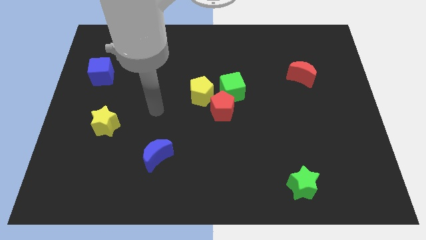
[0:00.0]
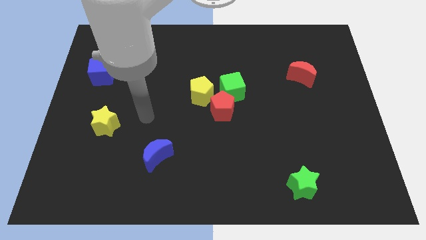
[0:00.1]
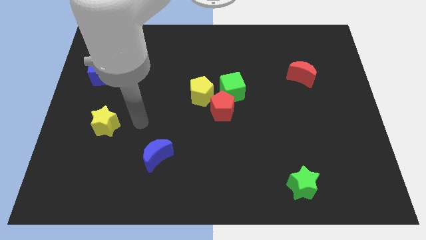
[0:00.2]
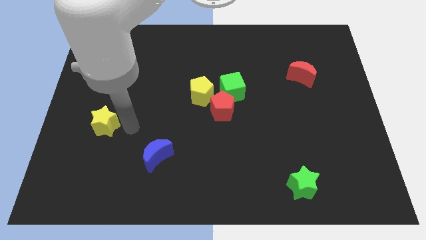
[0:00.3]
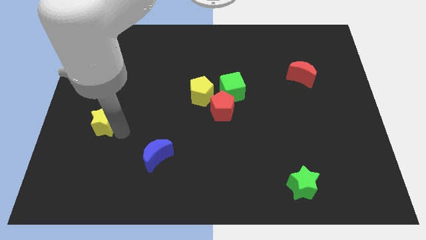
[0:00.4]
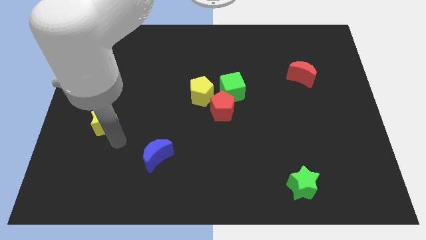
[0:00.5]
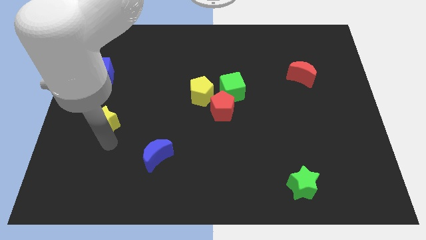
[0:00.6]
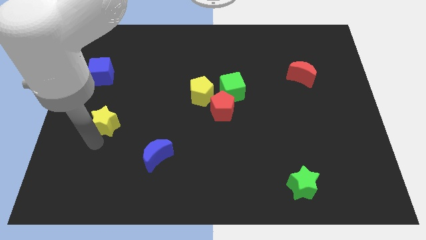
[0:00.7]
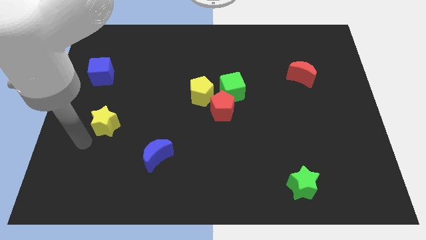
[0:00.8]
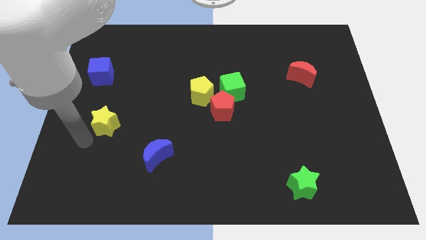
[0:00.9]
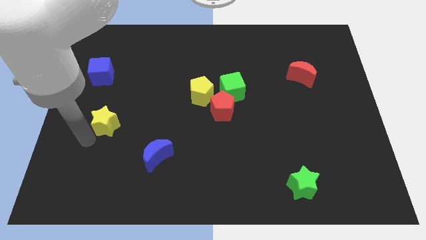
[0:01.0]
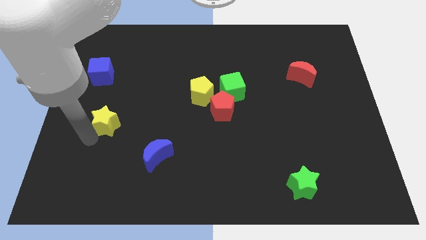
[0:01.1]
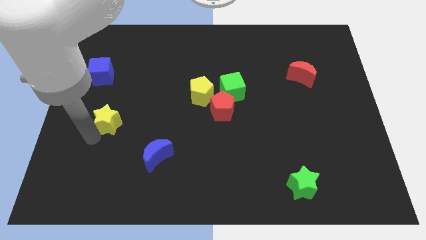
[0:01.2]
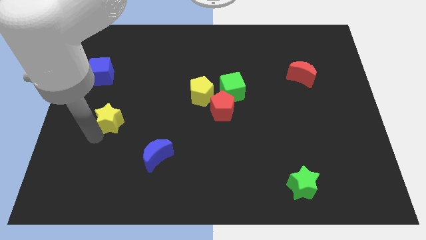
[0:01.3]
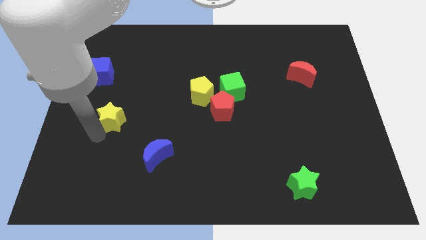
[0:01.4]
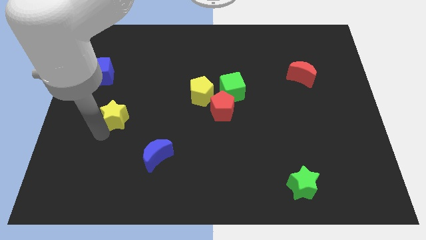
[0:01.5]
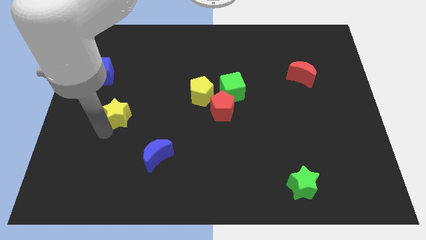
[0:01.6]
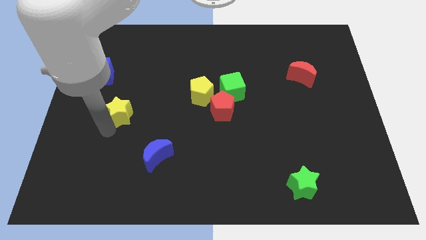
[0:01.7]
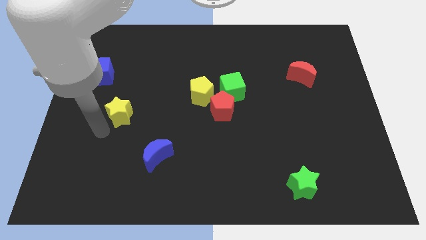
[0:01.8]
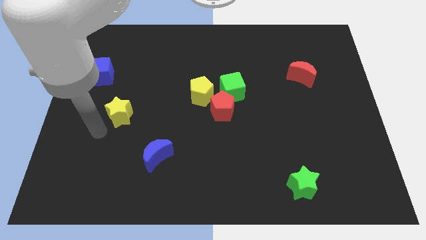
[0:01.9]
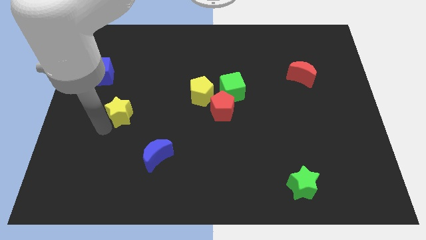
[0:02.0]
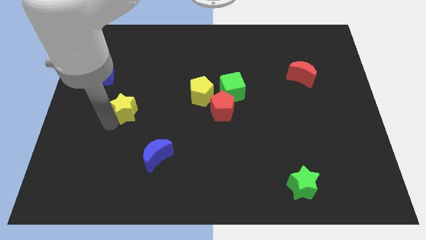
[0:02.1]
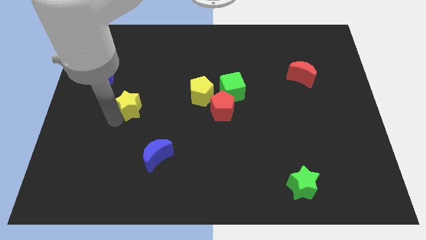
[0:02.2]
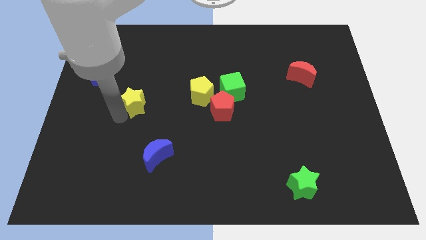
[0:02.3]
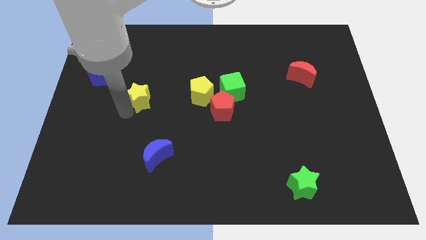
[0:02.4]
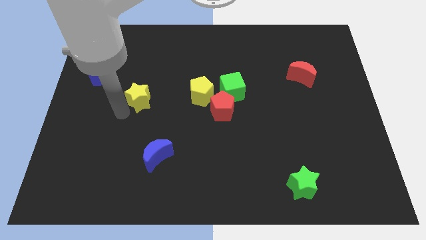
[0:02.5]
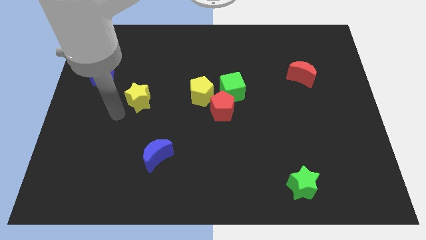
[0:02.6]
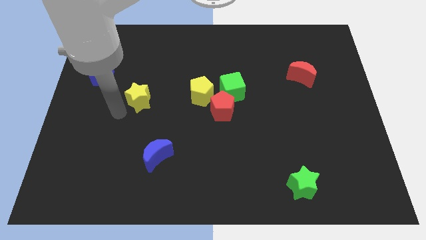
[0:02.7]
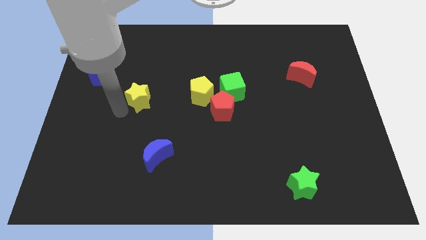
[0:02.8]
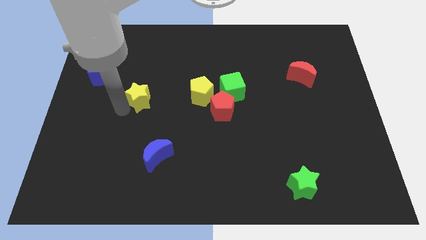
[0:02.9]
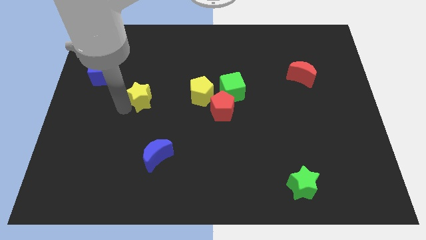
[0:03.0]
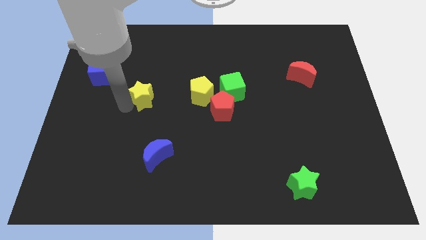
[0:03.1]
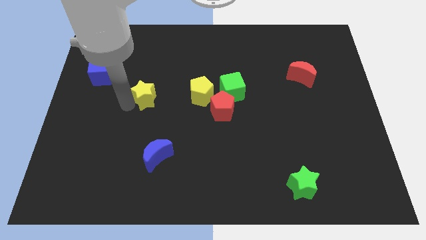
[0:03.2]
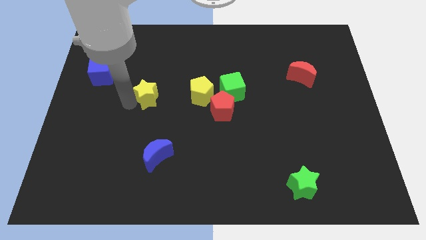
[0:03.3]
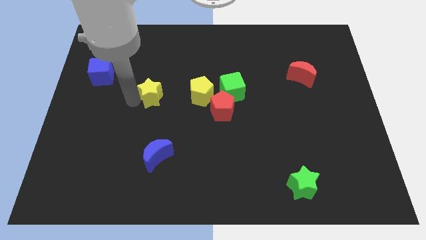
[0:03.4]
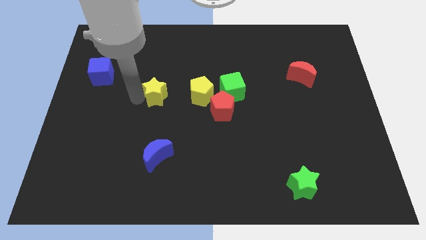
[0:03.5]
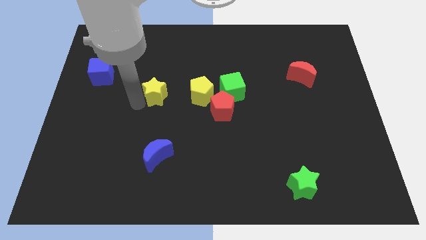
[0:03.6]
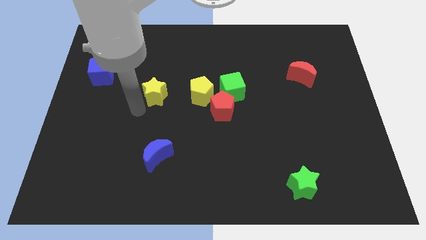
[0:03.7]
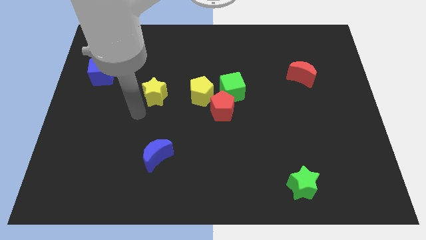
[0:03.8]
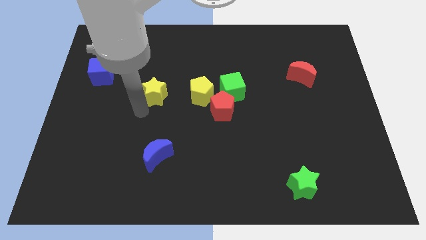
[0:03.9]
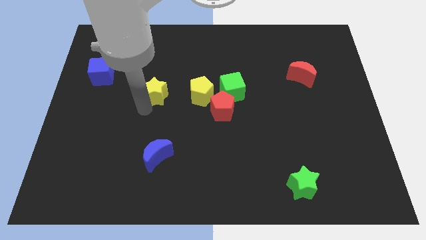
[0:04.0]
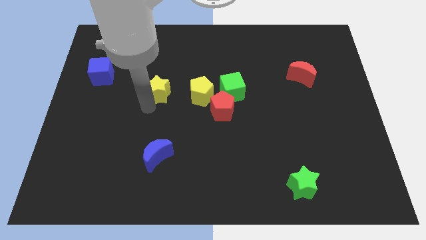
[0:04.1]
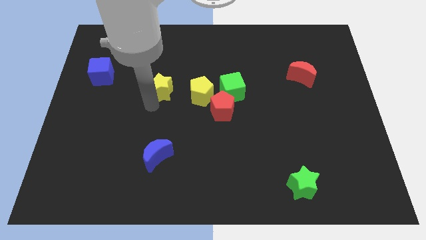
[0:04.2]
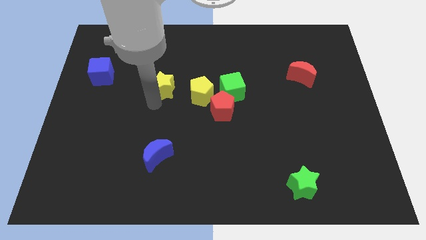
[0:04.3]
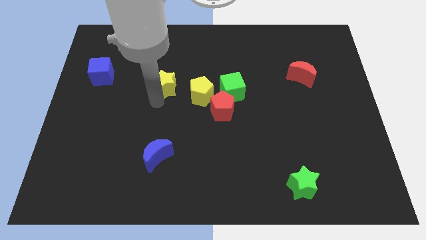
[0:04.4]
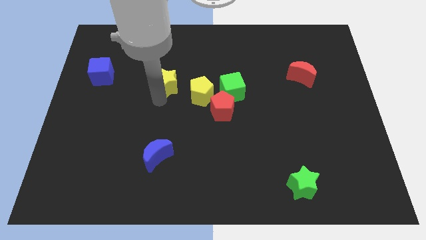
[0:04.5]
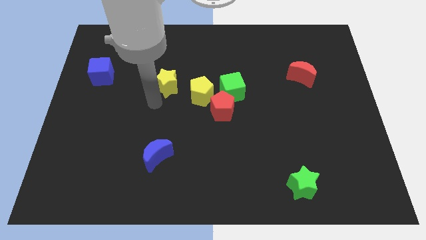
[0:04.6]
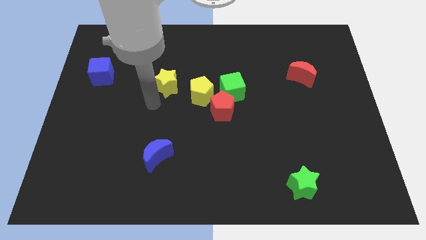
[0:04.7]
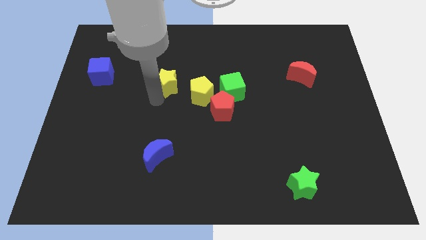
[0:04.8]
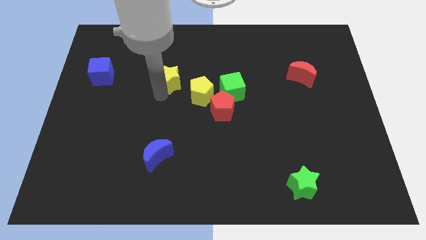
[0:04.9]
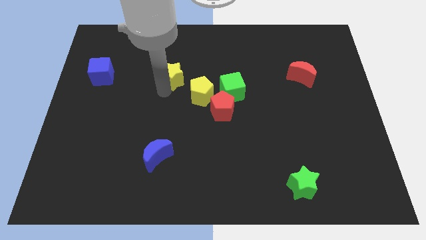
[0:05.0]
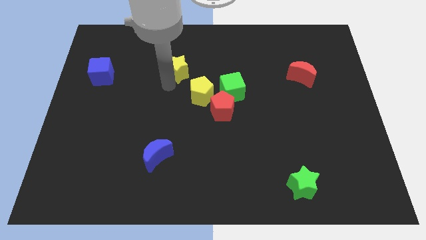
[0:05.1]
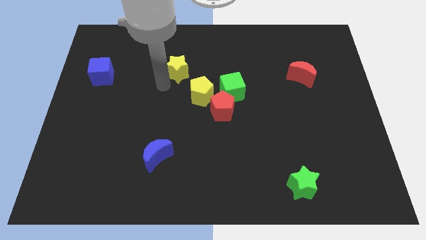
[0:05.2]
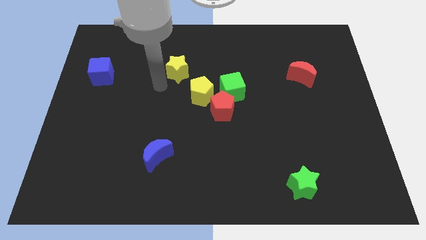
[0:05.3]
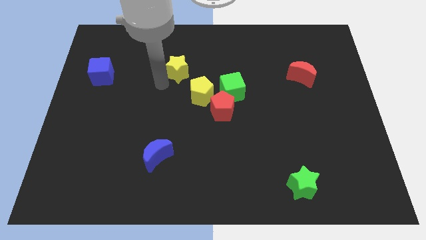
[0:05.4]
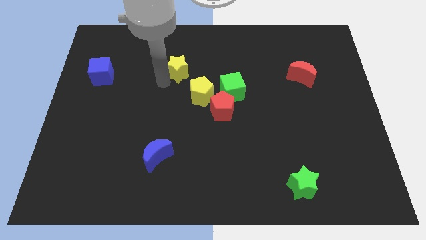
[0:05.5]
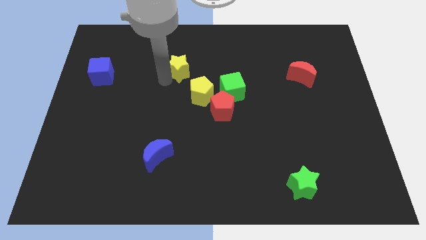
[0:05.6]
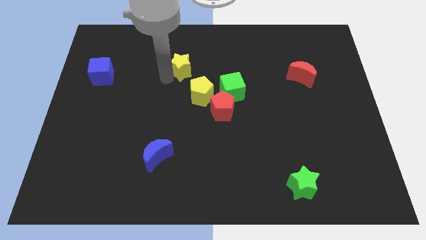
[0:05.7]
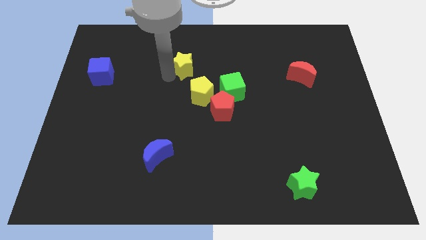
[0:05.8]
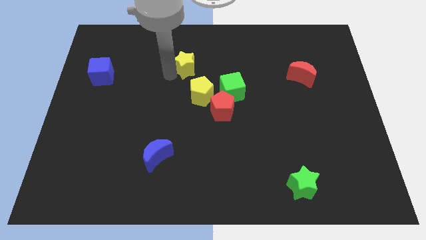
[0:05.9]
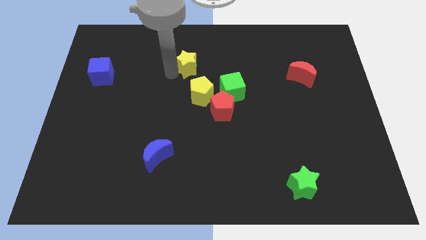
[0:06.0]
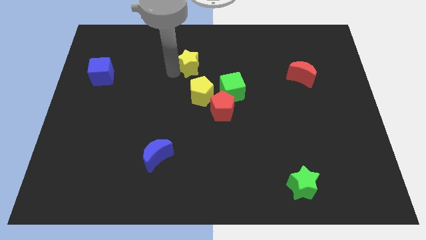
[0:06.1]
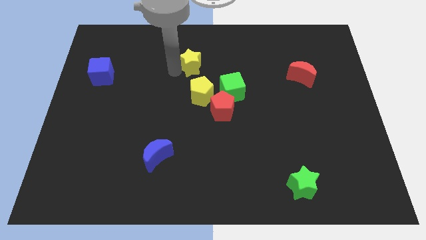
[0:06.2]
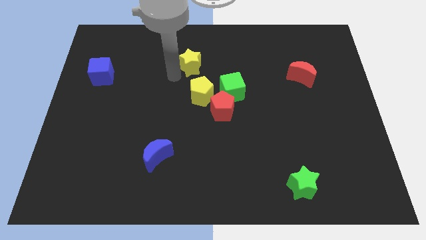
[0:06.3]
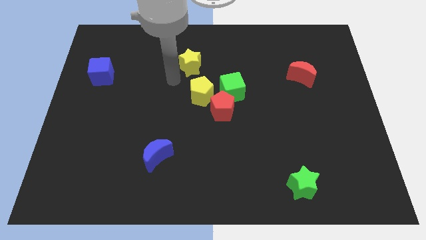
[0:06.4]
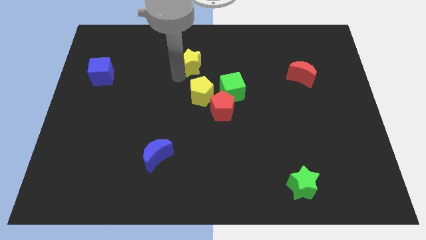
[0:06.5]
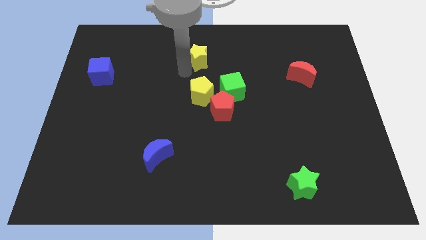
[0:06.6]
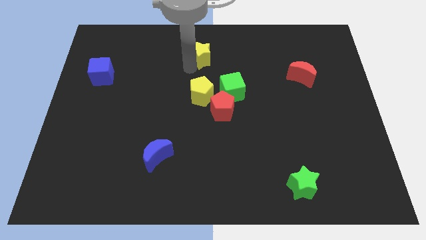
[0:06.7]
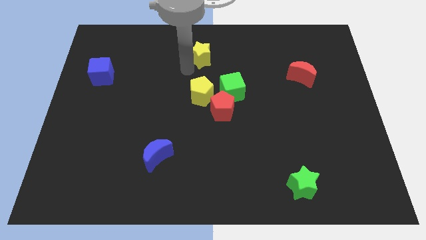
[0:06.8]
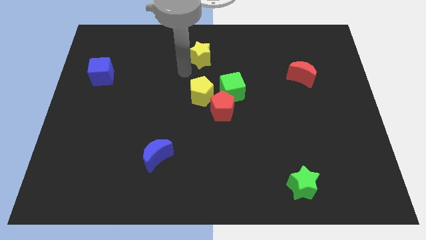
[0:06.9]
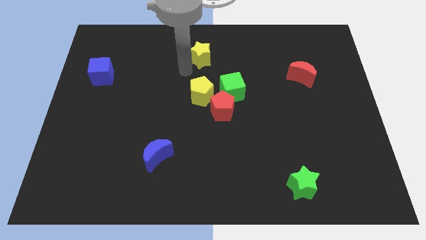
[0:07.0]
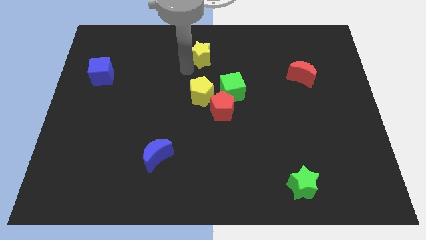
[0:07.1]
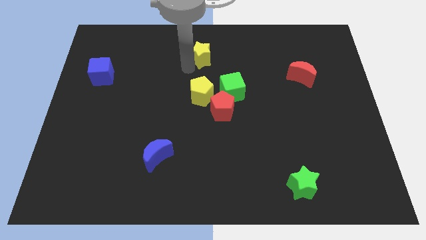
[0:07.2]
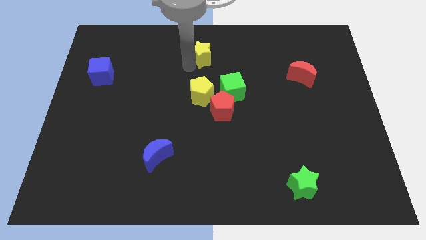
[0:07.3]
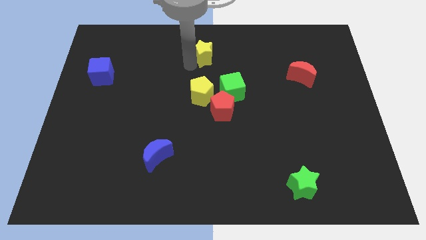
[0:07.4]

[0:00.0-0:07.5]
put the yellow star to the towards your base
